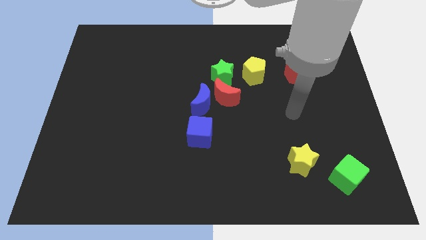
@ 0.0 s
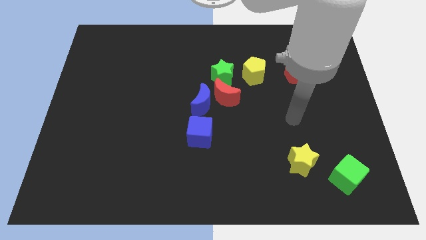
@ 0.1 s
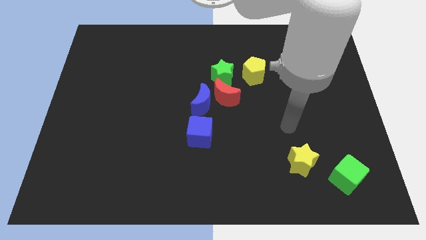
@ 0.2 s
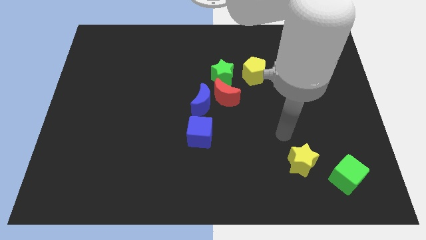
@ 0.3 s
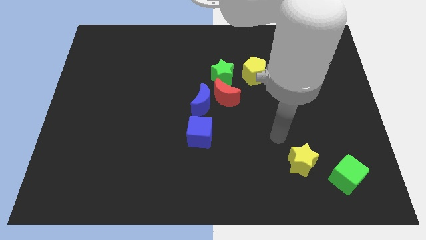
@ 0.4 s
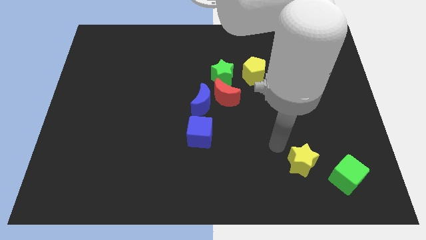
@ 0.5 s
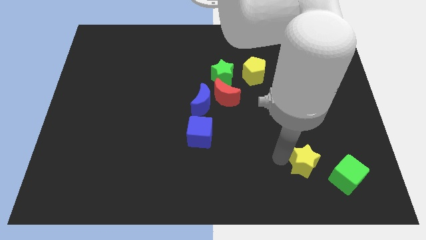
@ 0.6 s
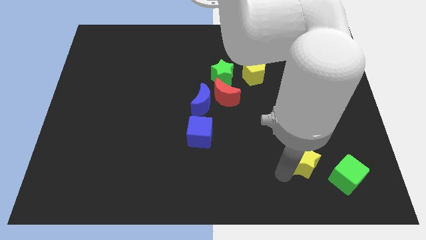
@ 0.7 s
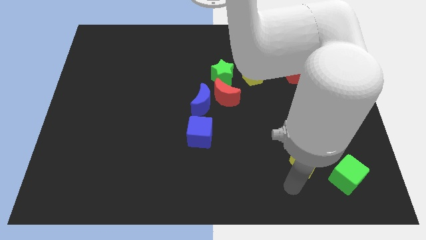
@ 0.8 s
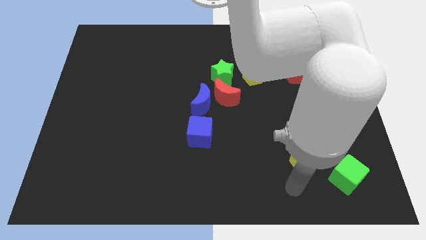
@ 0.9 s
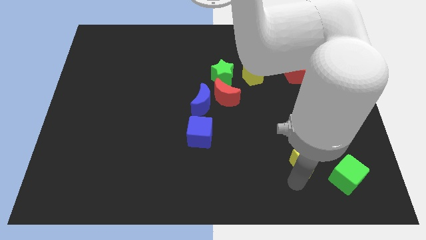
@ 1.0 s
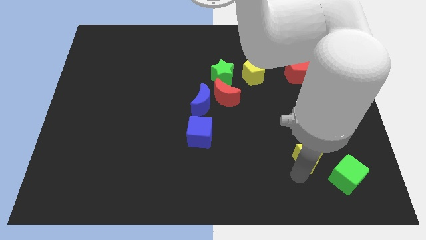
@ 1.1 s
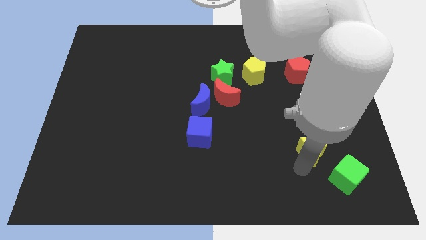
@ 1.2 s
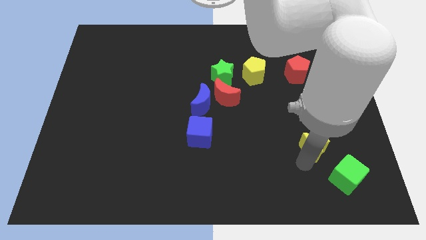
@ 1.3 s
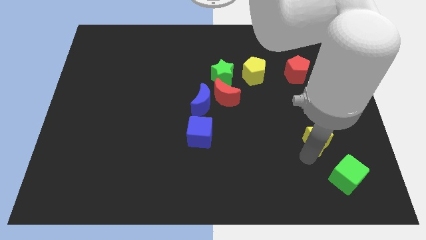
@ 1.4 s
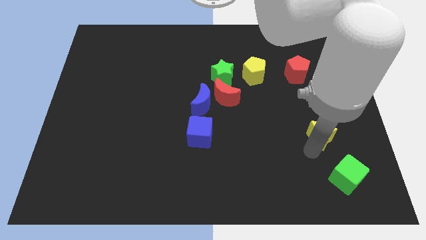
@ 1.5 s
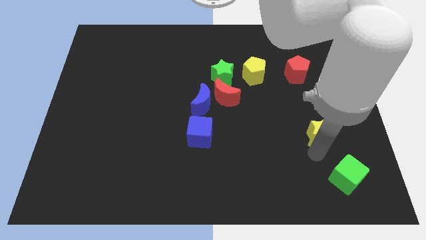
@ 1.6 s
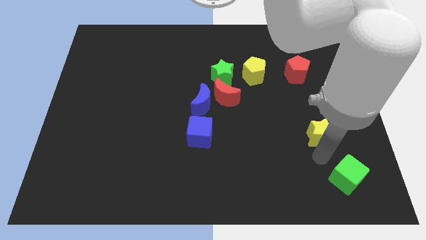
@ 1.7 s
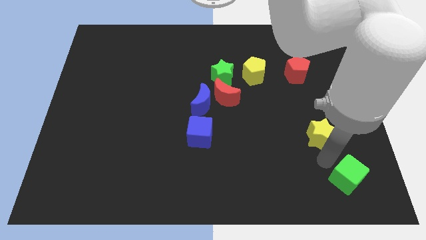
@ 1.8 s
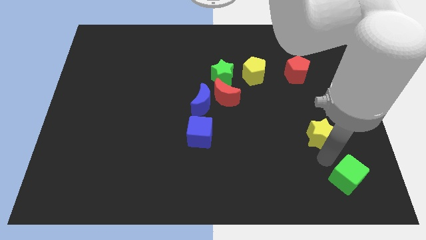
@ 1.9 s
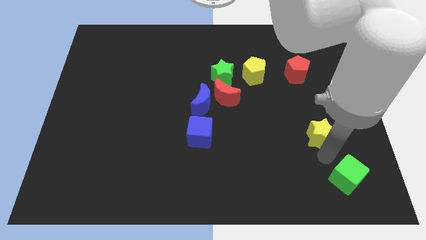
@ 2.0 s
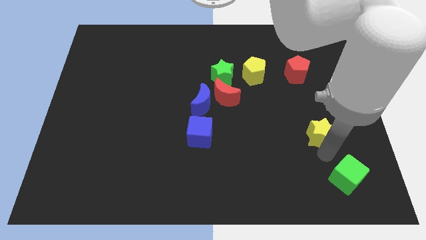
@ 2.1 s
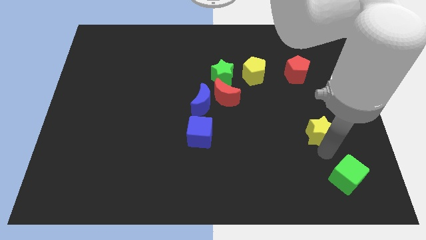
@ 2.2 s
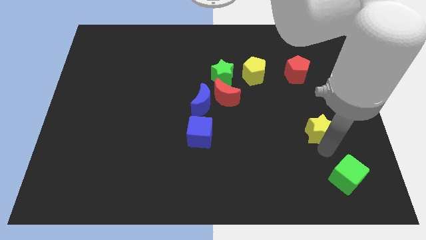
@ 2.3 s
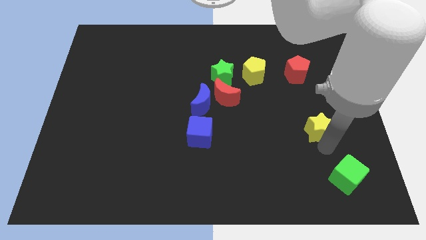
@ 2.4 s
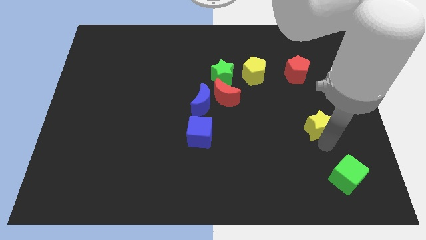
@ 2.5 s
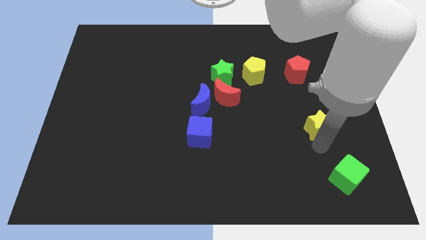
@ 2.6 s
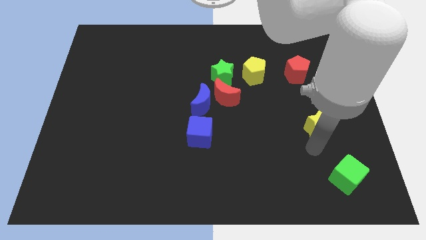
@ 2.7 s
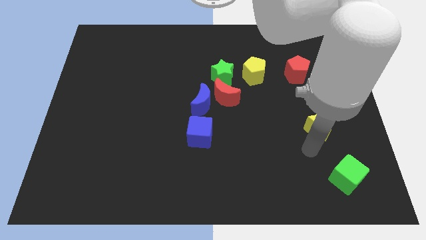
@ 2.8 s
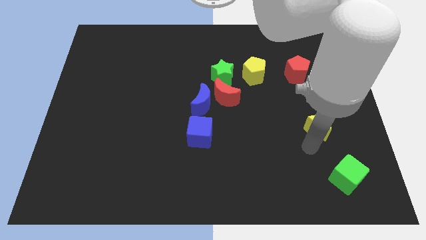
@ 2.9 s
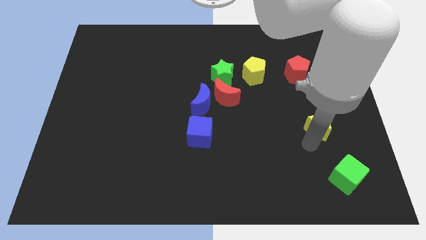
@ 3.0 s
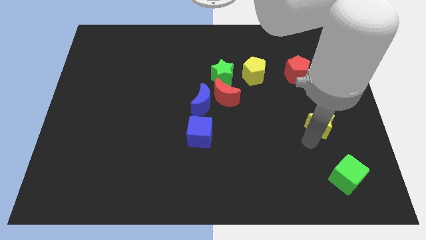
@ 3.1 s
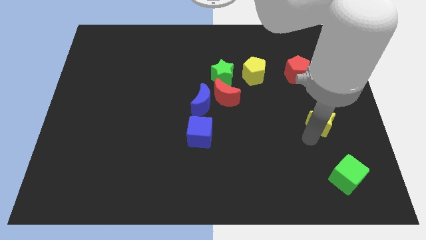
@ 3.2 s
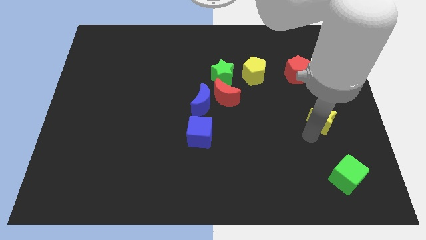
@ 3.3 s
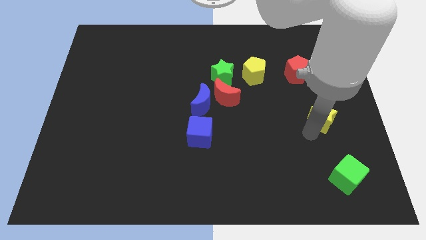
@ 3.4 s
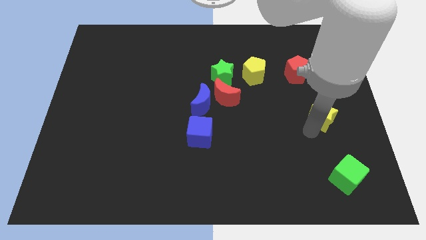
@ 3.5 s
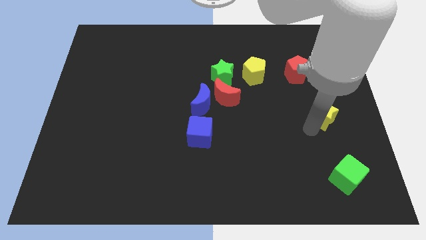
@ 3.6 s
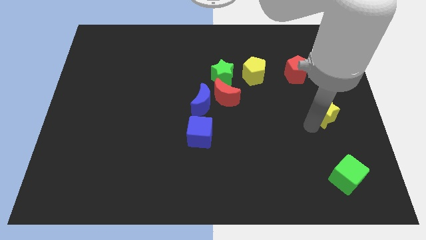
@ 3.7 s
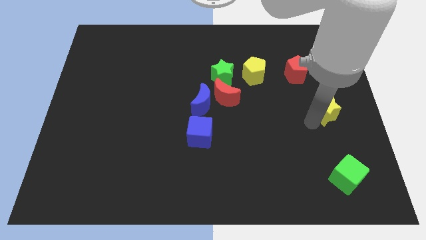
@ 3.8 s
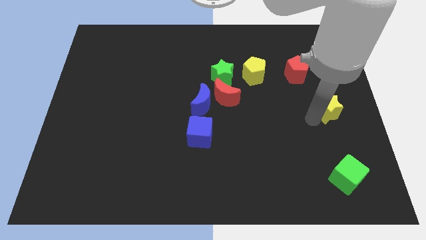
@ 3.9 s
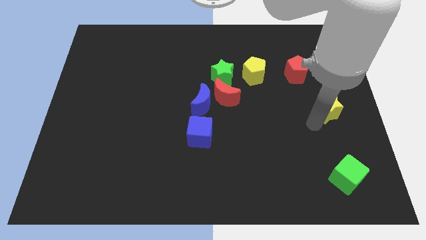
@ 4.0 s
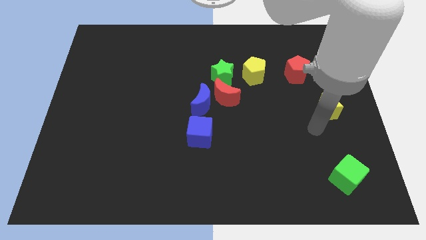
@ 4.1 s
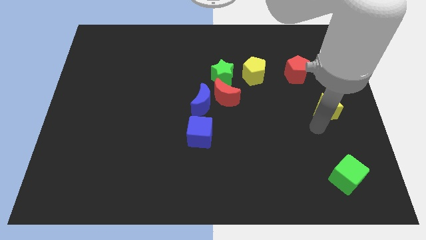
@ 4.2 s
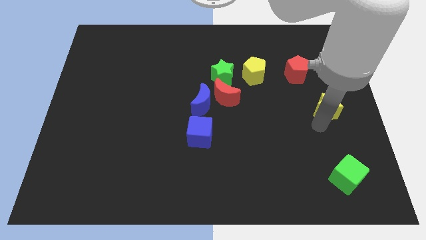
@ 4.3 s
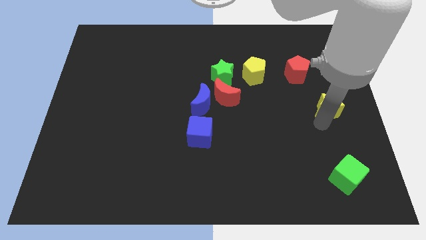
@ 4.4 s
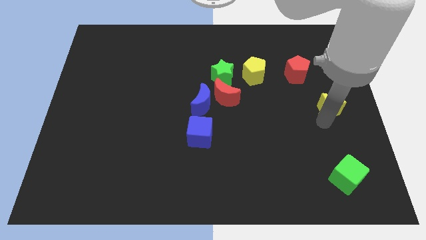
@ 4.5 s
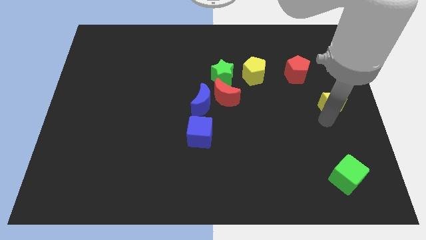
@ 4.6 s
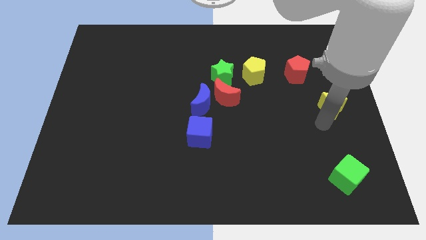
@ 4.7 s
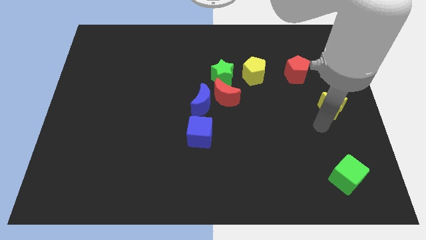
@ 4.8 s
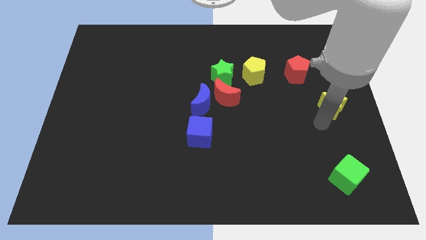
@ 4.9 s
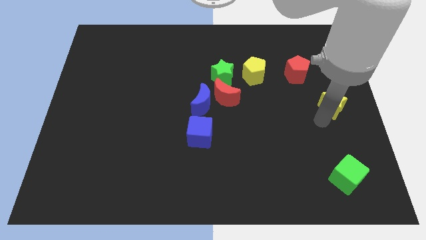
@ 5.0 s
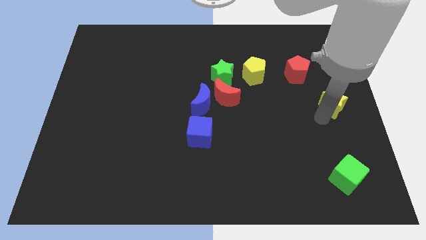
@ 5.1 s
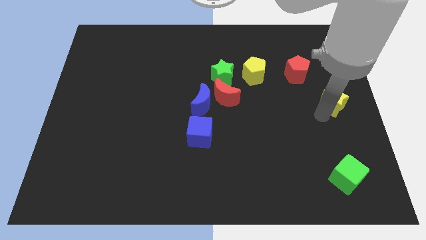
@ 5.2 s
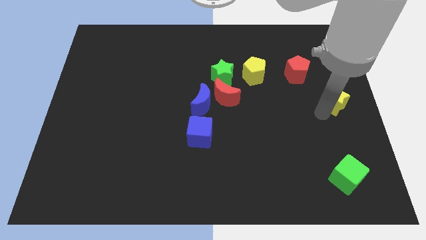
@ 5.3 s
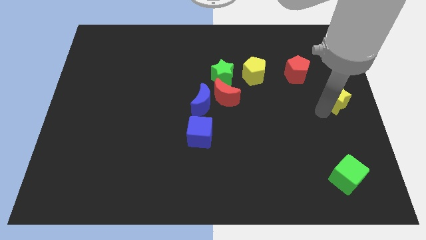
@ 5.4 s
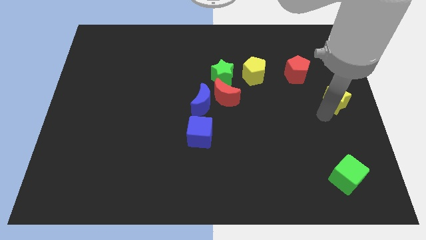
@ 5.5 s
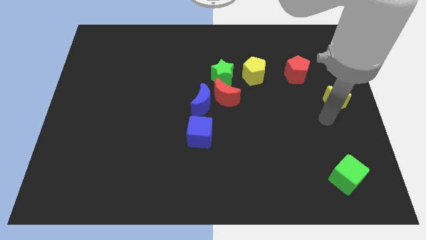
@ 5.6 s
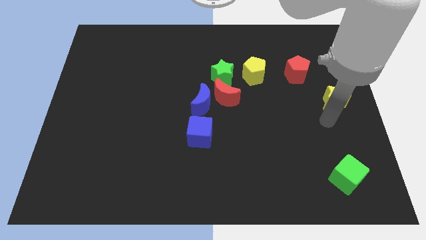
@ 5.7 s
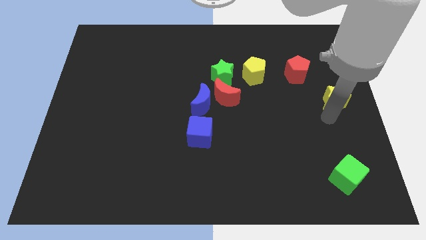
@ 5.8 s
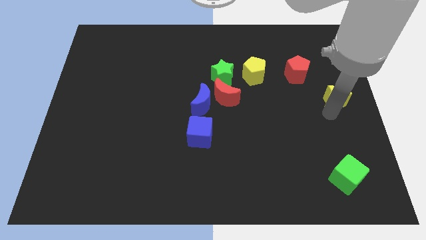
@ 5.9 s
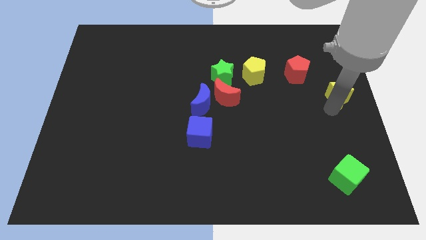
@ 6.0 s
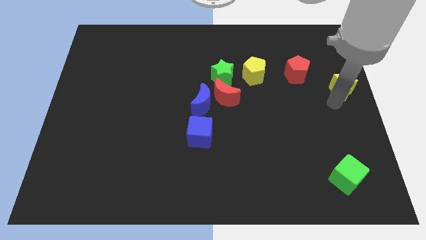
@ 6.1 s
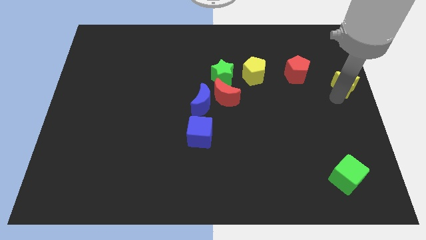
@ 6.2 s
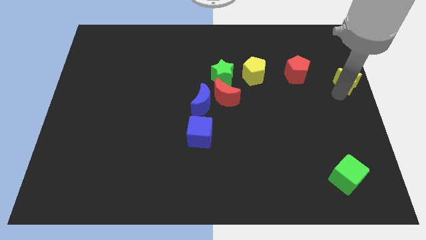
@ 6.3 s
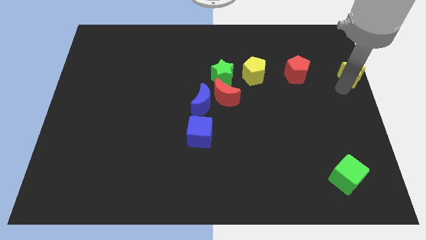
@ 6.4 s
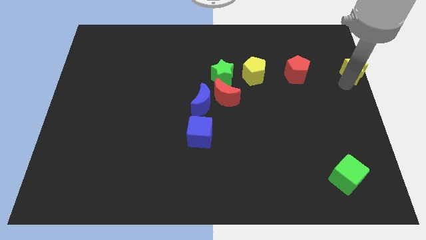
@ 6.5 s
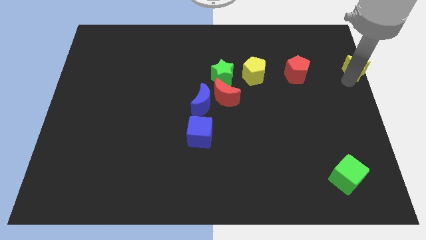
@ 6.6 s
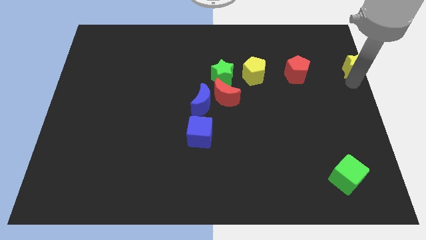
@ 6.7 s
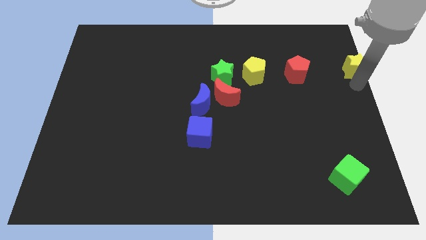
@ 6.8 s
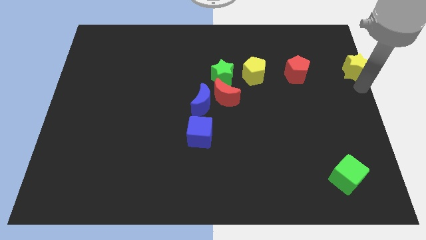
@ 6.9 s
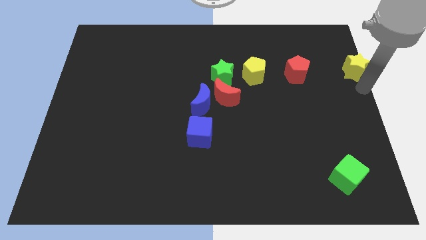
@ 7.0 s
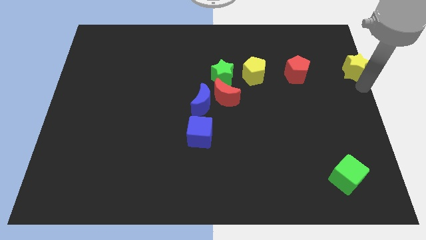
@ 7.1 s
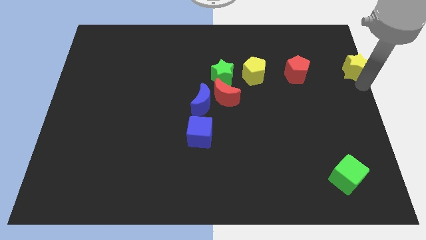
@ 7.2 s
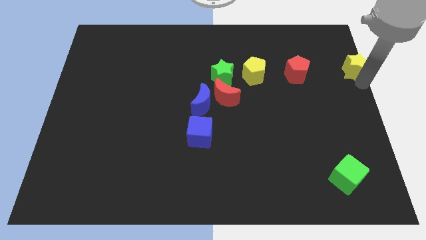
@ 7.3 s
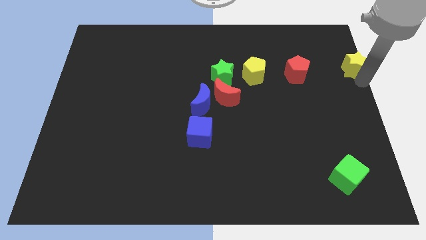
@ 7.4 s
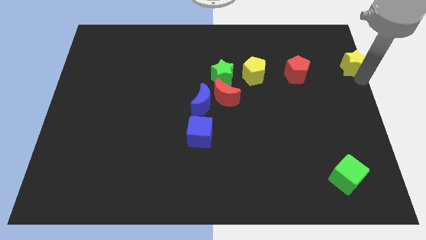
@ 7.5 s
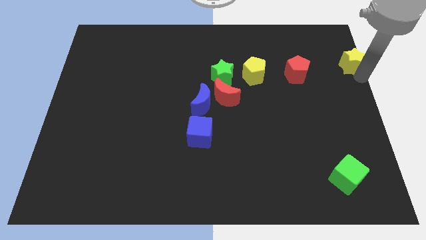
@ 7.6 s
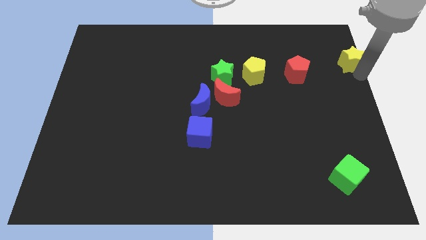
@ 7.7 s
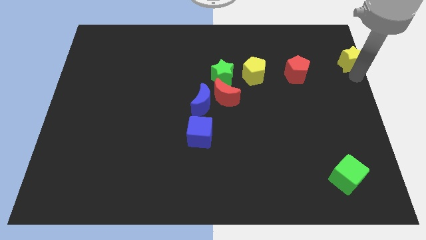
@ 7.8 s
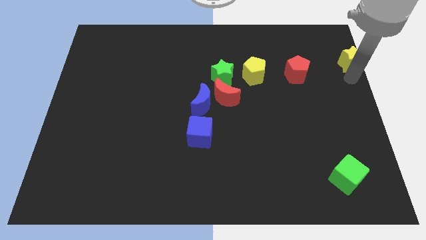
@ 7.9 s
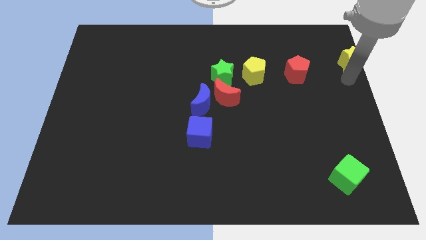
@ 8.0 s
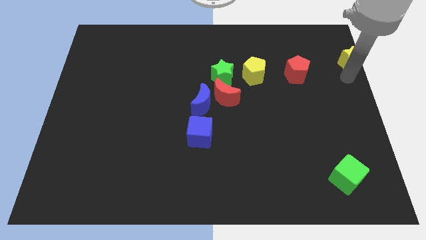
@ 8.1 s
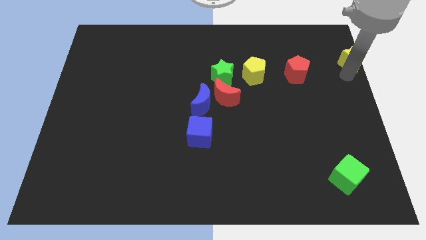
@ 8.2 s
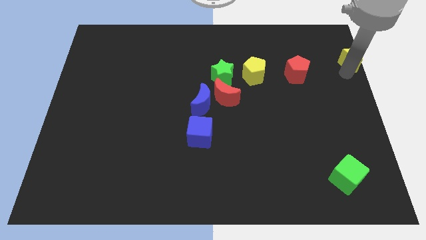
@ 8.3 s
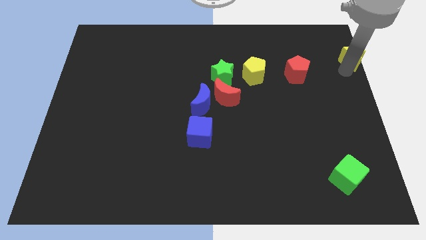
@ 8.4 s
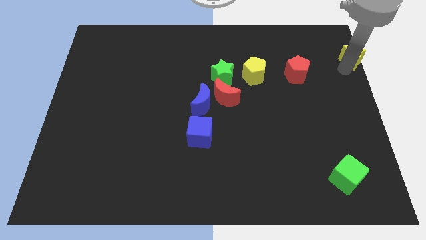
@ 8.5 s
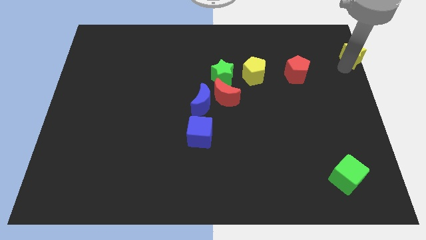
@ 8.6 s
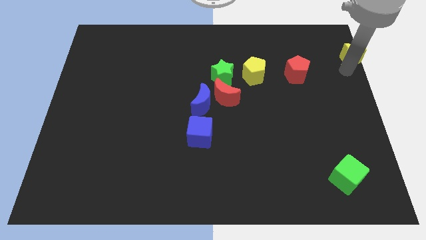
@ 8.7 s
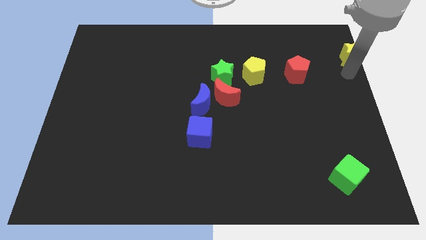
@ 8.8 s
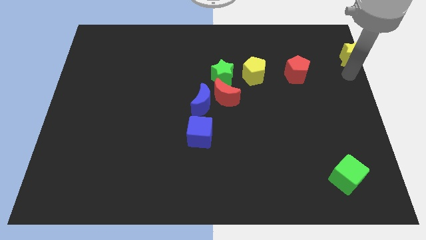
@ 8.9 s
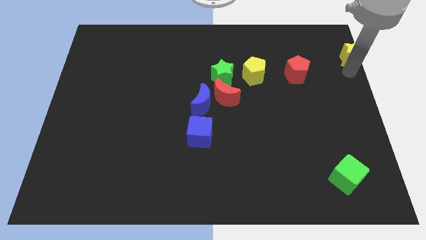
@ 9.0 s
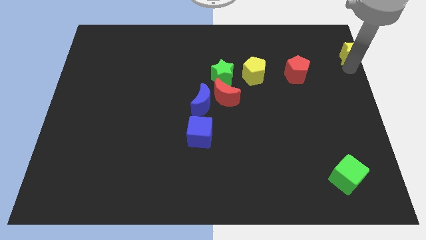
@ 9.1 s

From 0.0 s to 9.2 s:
move the yellow star to the top right of the board
